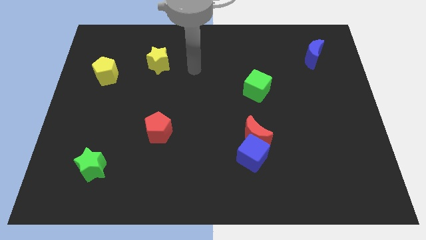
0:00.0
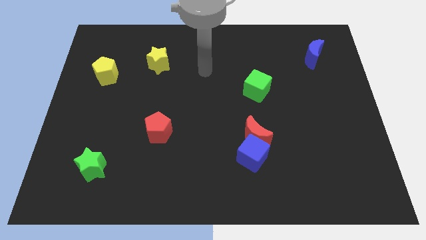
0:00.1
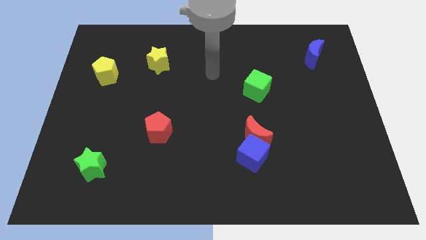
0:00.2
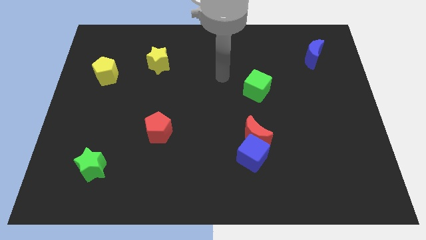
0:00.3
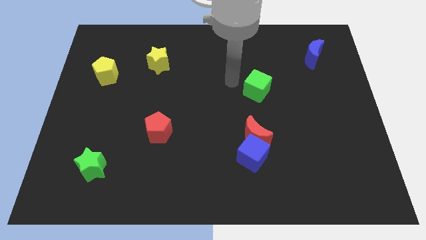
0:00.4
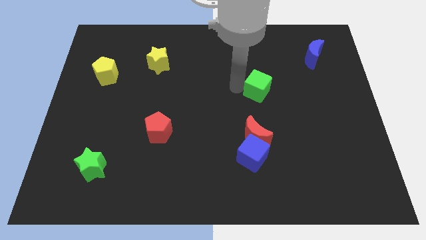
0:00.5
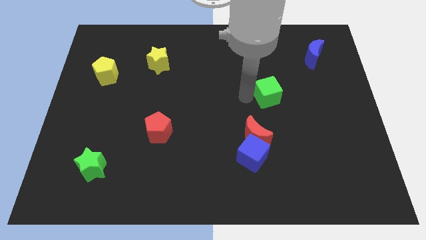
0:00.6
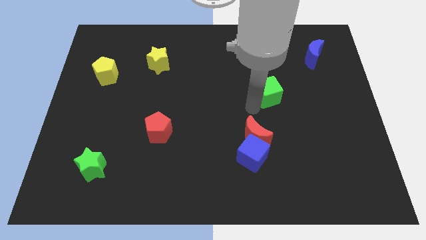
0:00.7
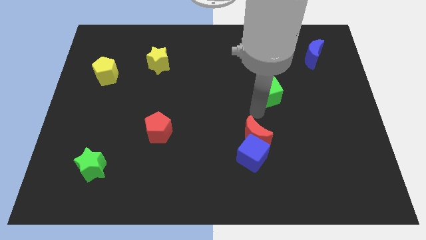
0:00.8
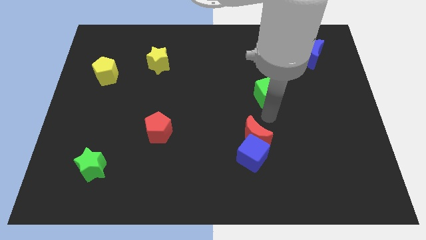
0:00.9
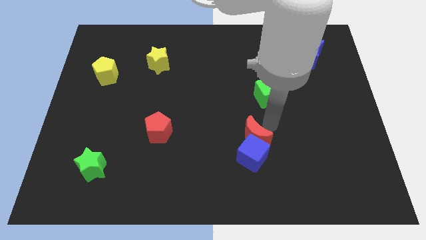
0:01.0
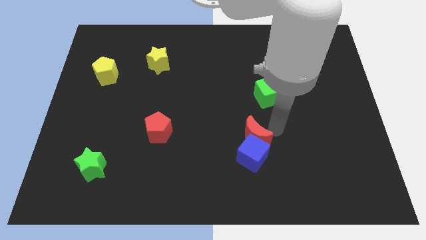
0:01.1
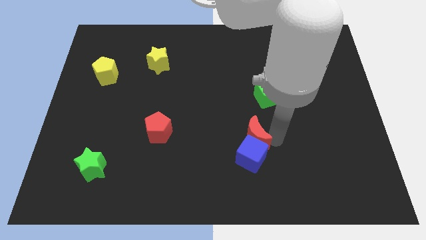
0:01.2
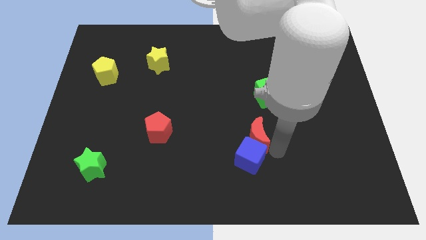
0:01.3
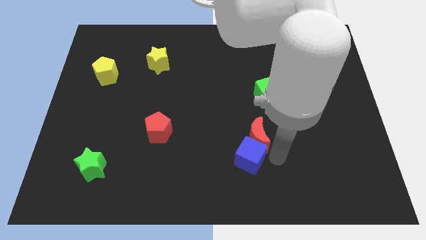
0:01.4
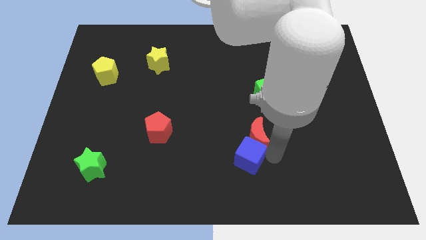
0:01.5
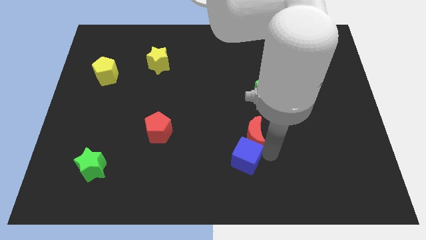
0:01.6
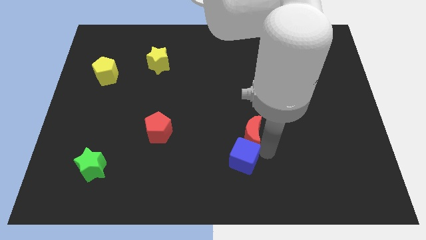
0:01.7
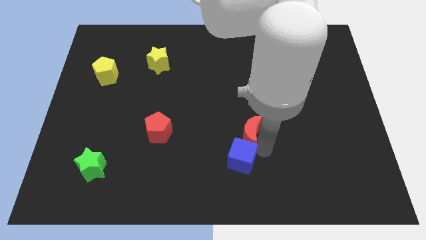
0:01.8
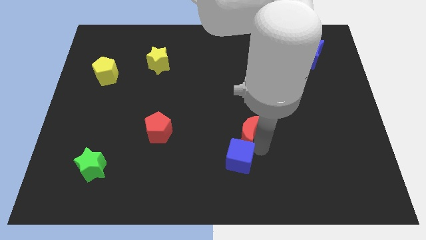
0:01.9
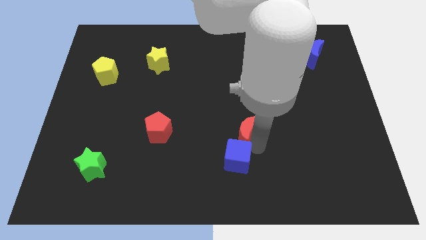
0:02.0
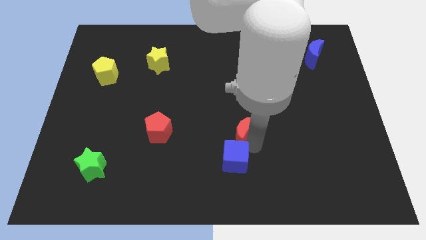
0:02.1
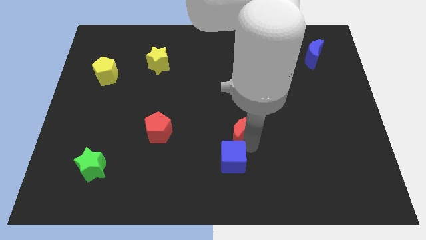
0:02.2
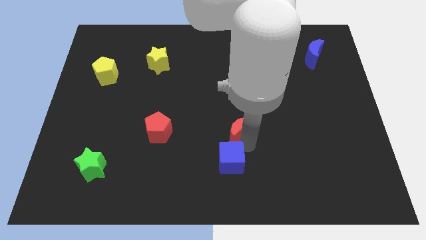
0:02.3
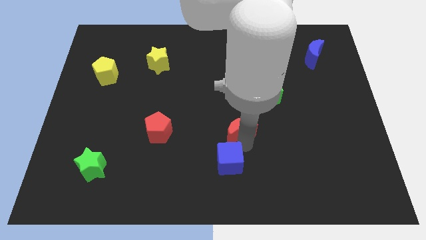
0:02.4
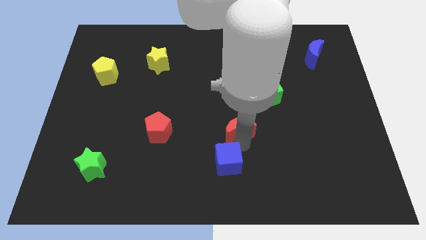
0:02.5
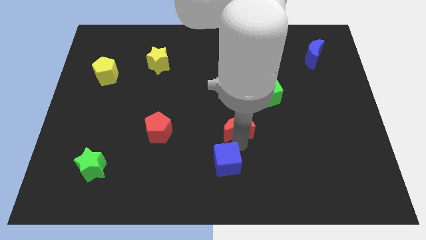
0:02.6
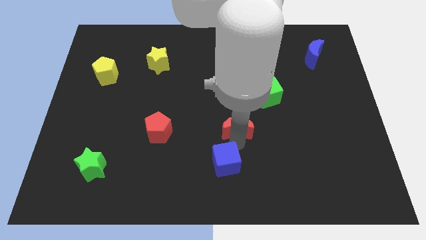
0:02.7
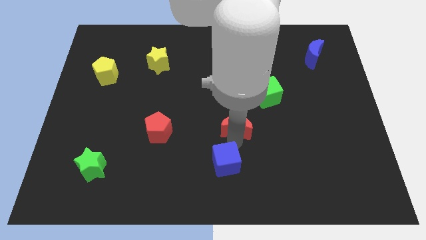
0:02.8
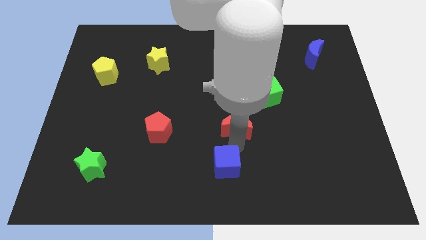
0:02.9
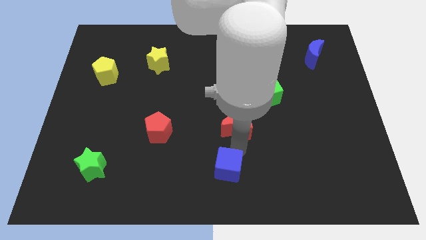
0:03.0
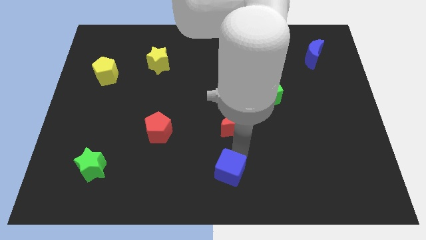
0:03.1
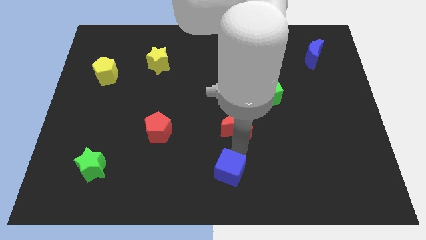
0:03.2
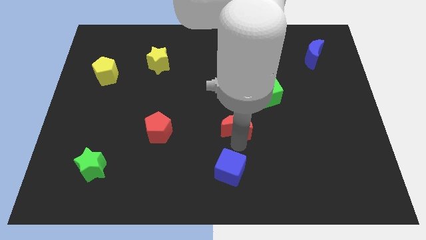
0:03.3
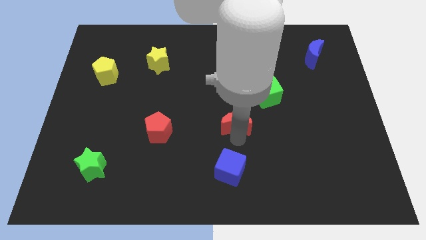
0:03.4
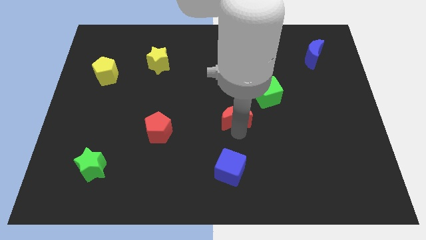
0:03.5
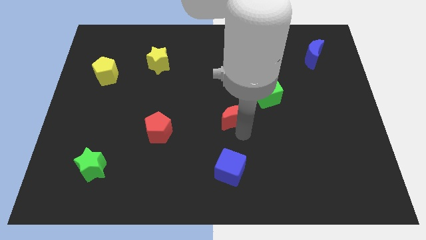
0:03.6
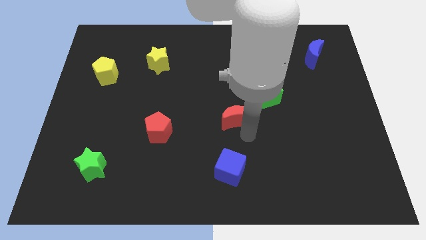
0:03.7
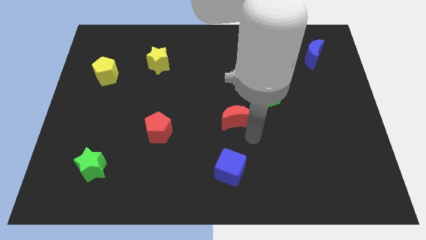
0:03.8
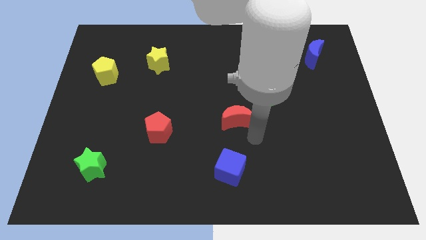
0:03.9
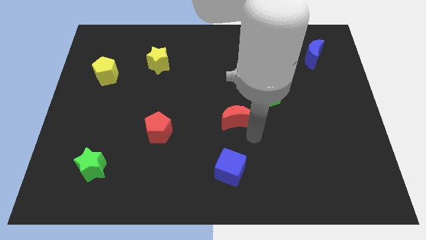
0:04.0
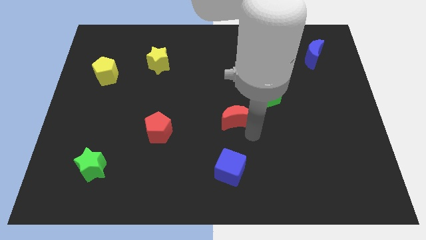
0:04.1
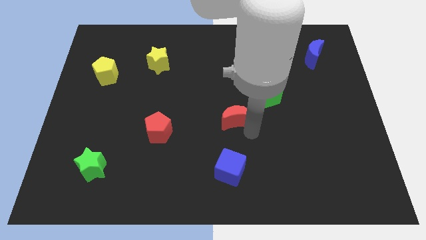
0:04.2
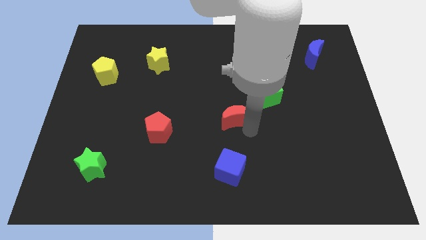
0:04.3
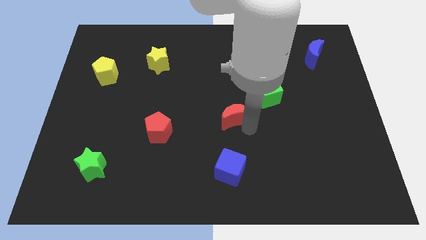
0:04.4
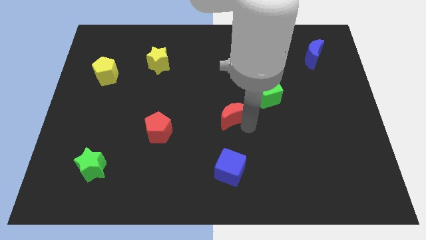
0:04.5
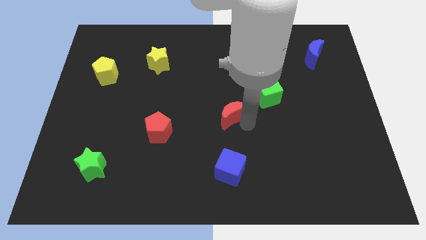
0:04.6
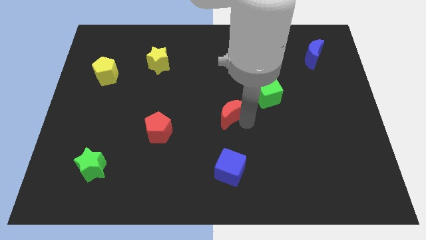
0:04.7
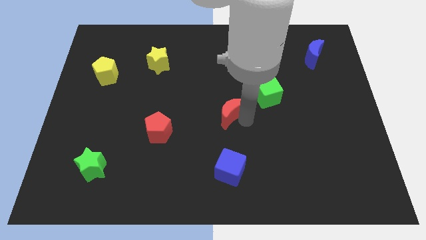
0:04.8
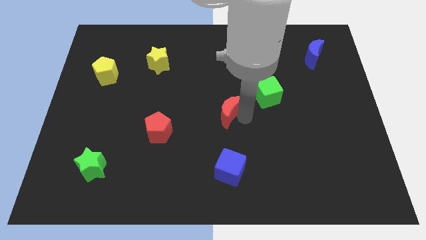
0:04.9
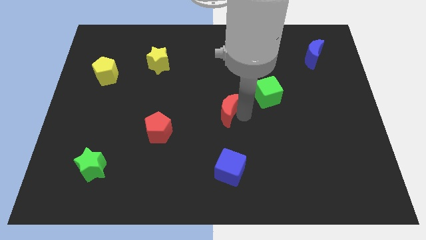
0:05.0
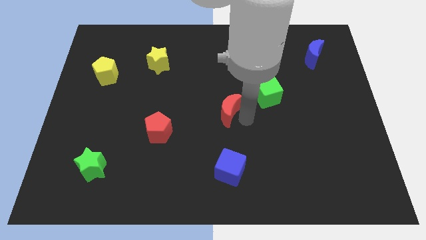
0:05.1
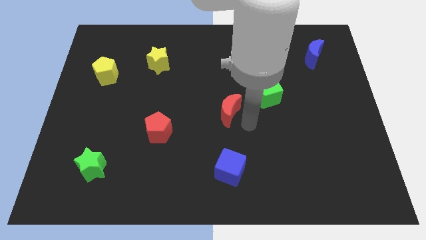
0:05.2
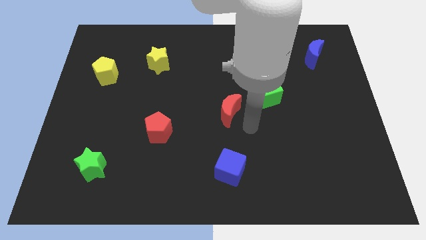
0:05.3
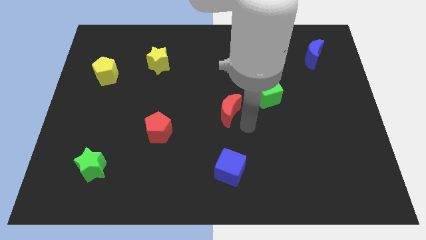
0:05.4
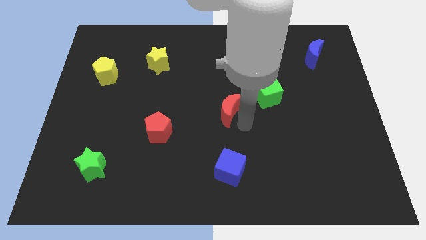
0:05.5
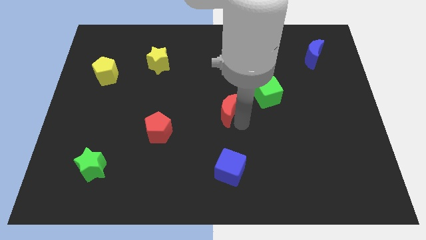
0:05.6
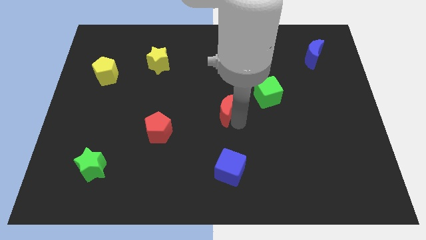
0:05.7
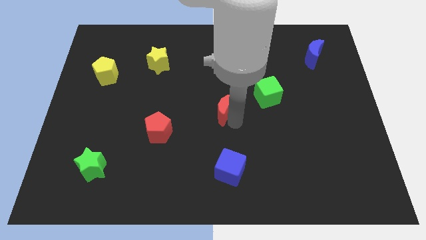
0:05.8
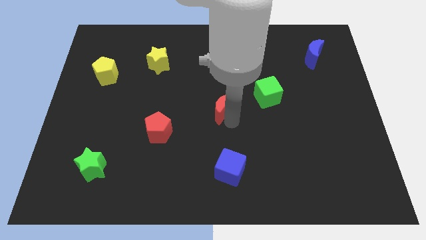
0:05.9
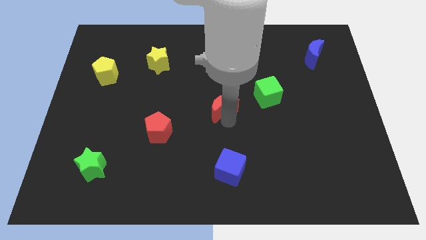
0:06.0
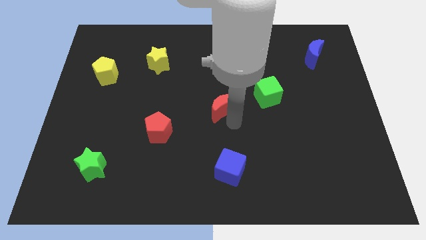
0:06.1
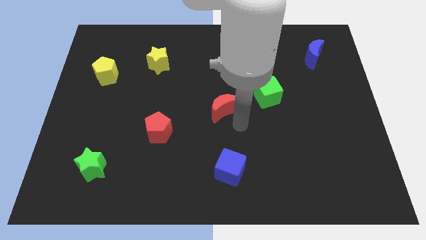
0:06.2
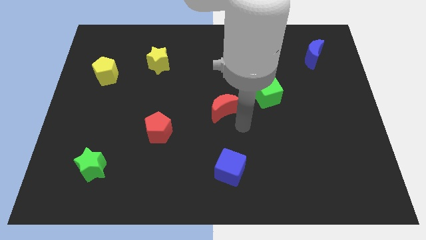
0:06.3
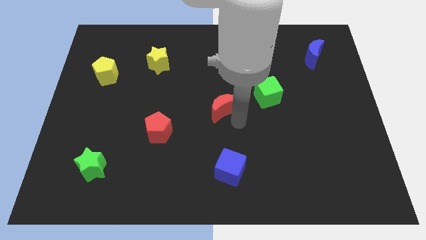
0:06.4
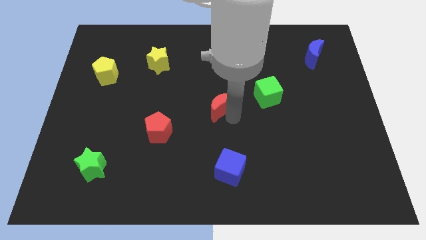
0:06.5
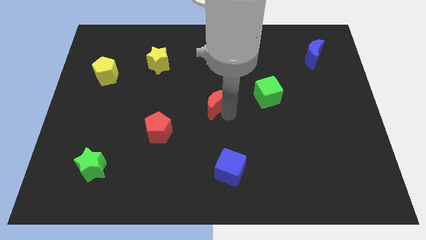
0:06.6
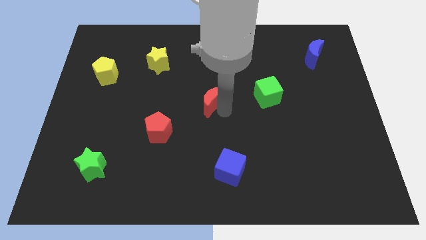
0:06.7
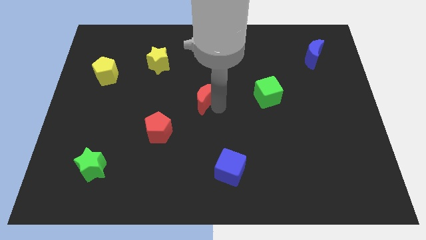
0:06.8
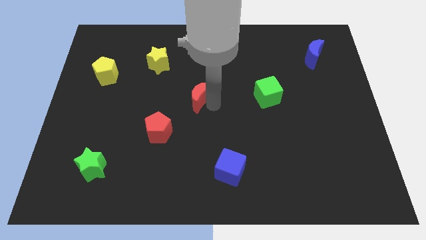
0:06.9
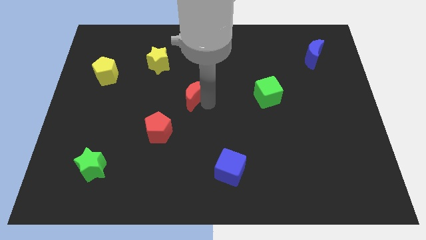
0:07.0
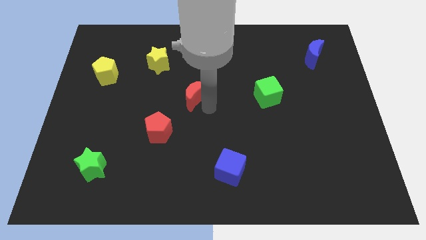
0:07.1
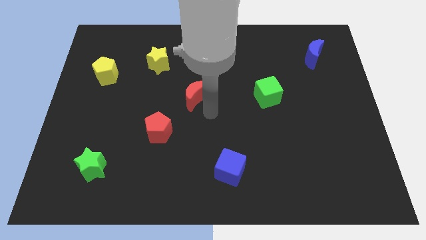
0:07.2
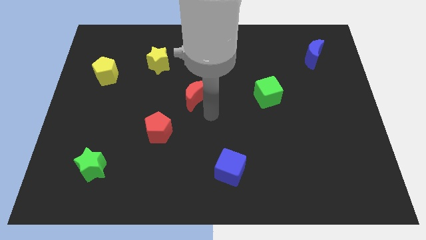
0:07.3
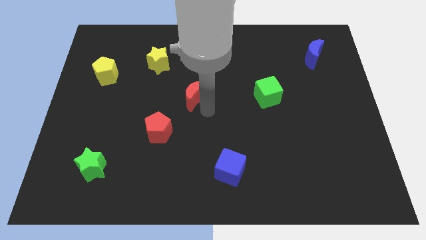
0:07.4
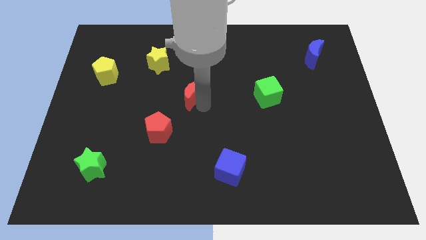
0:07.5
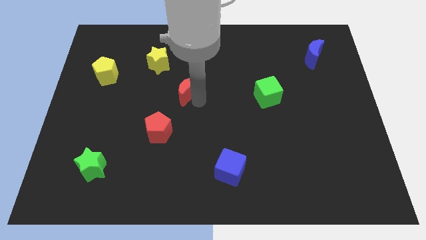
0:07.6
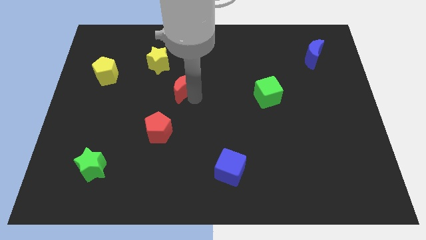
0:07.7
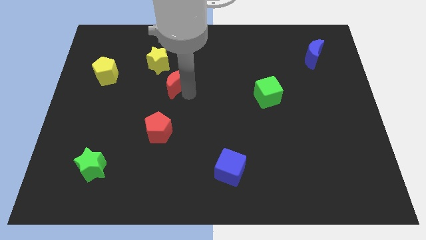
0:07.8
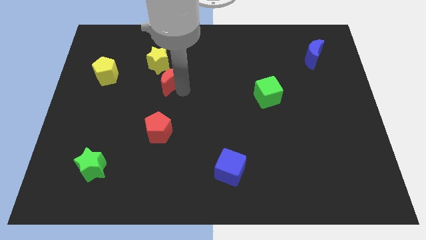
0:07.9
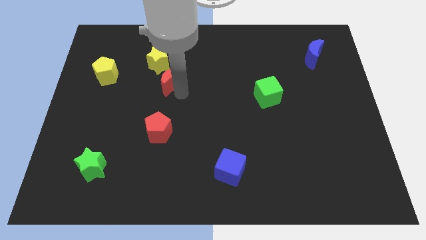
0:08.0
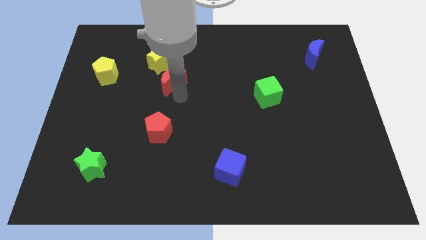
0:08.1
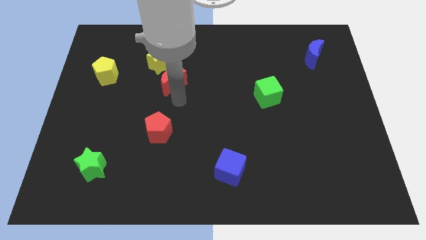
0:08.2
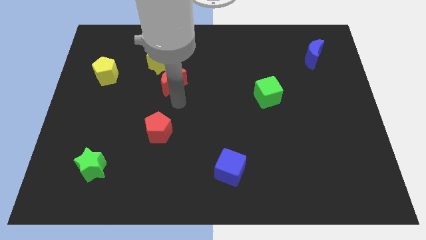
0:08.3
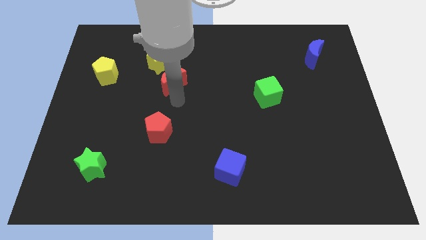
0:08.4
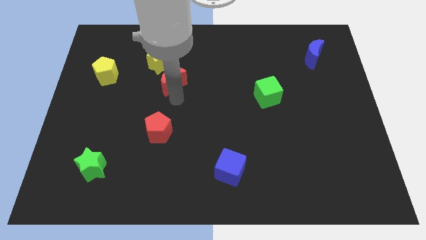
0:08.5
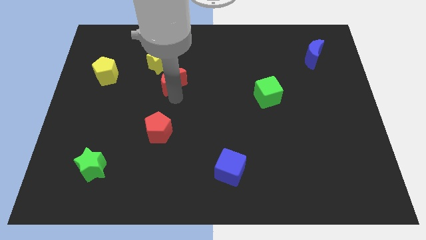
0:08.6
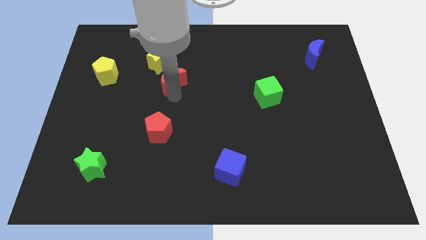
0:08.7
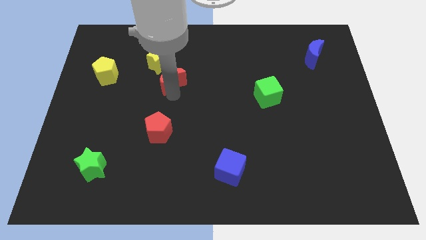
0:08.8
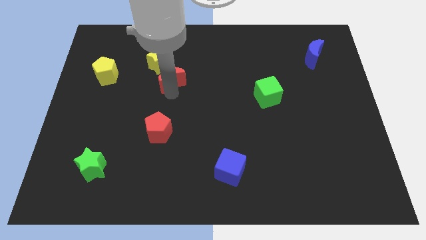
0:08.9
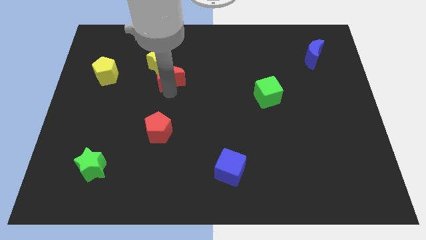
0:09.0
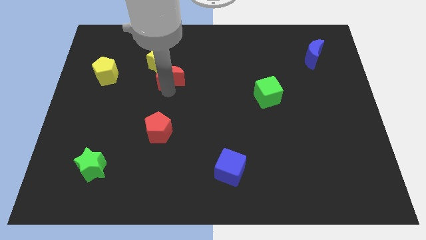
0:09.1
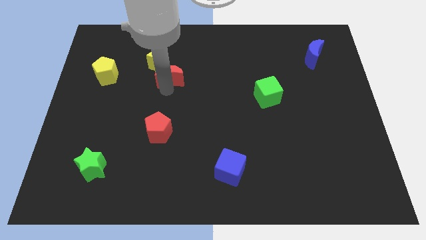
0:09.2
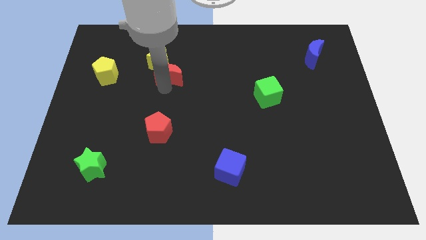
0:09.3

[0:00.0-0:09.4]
slide the red moon towards the yellow star
